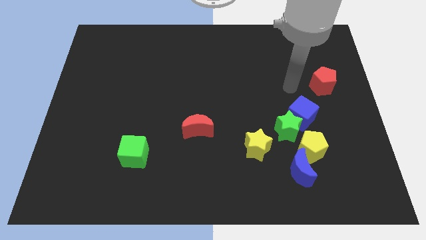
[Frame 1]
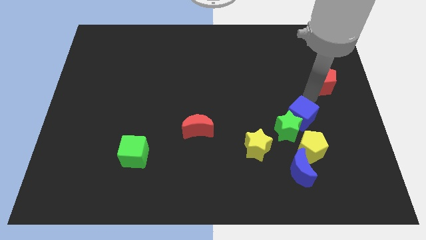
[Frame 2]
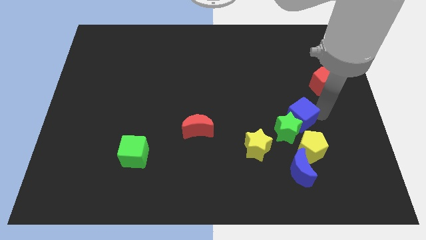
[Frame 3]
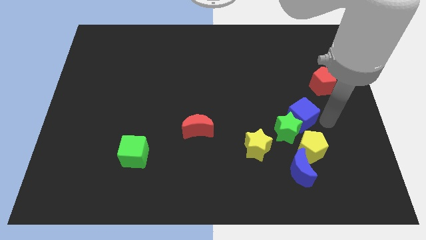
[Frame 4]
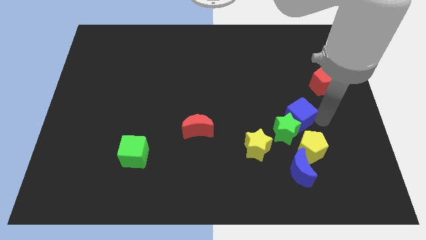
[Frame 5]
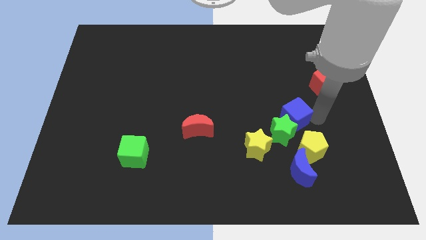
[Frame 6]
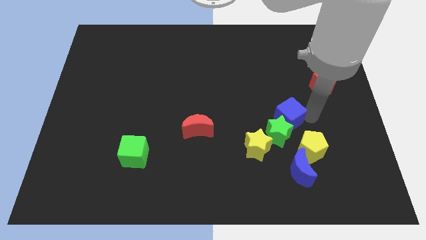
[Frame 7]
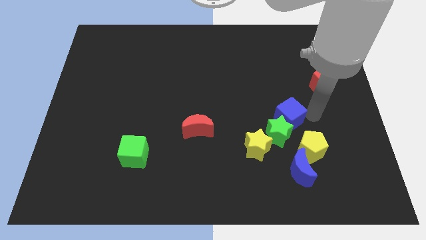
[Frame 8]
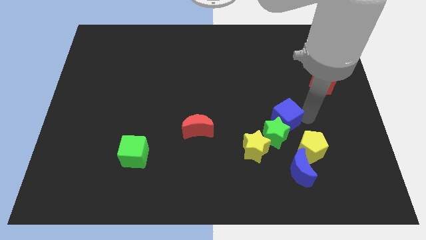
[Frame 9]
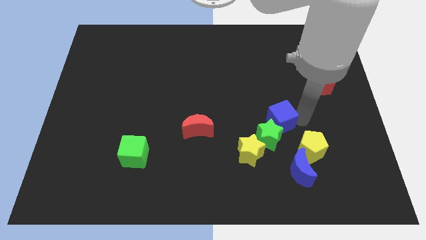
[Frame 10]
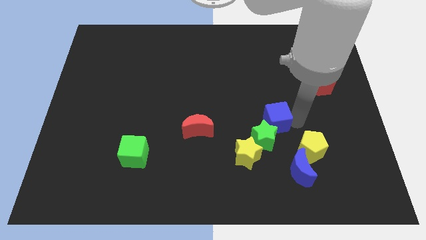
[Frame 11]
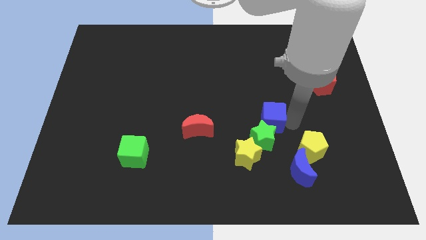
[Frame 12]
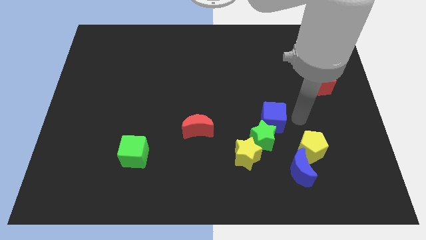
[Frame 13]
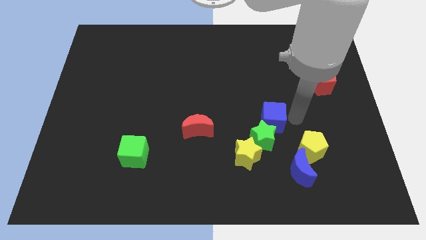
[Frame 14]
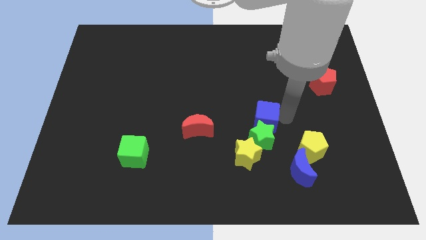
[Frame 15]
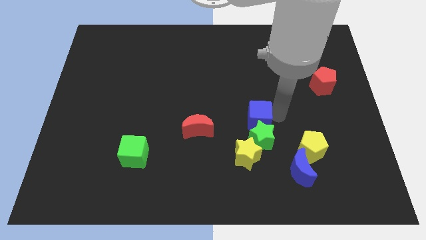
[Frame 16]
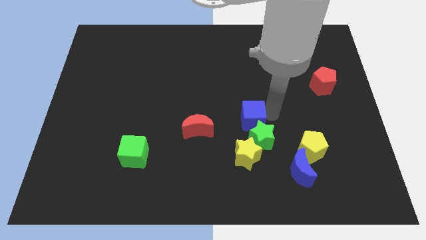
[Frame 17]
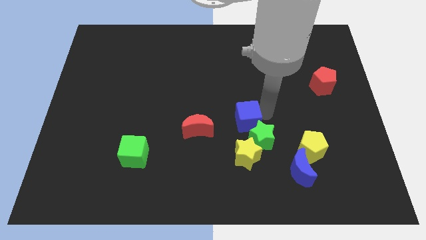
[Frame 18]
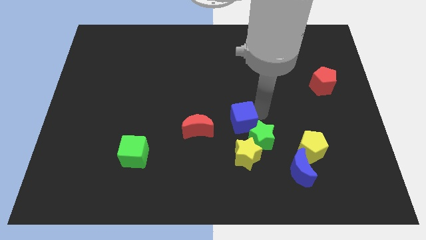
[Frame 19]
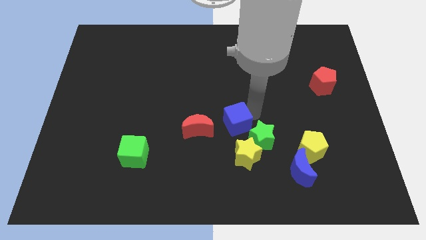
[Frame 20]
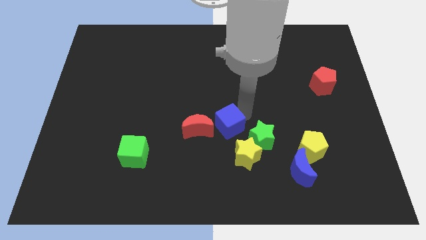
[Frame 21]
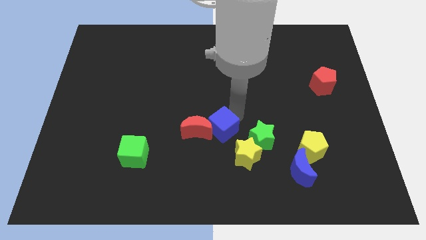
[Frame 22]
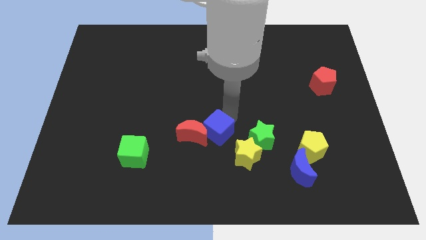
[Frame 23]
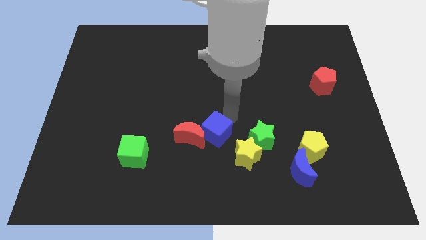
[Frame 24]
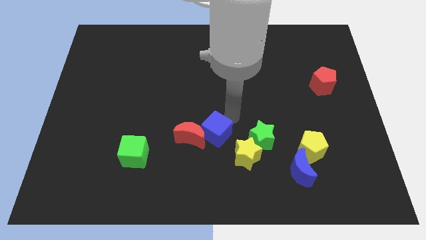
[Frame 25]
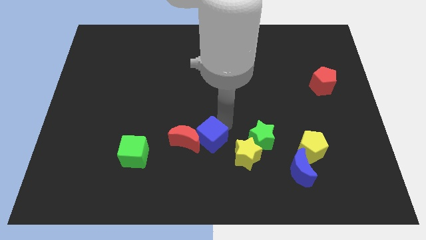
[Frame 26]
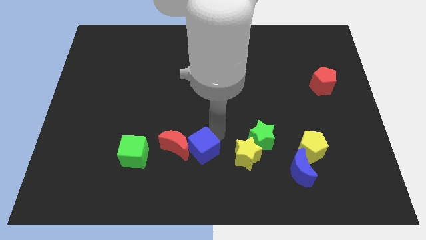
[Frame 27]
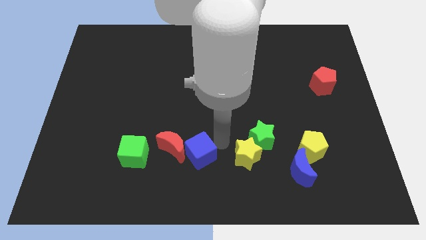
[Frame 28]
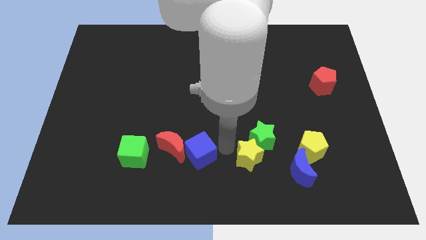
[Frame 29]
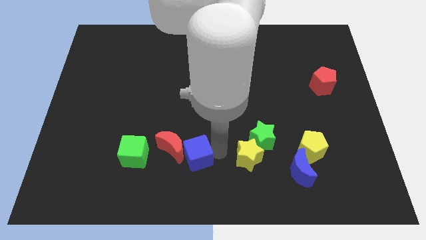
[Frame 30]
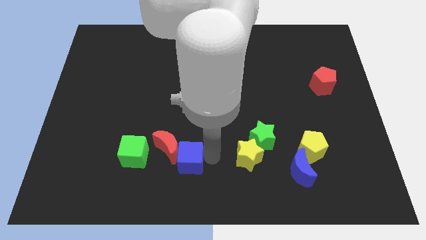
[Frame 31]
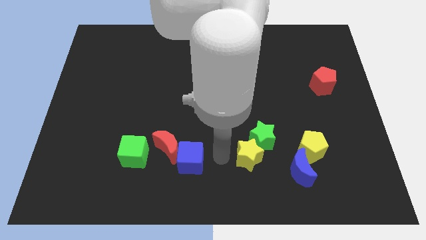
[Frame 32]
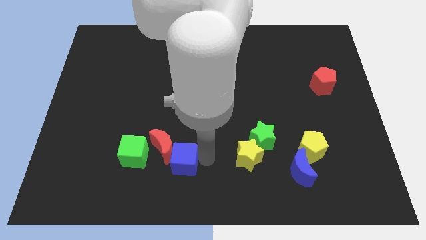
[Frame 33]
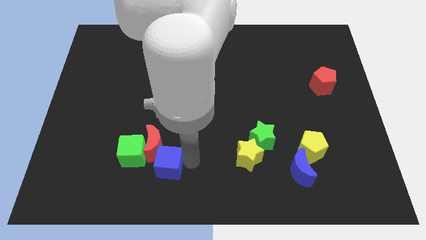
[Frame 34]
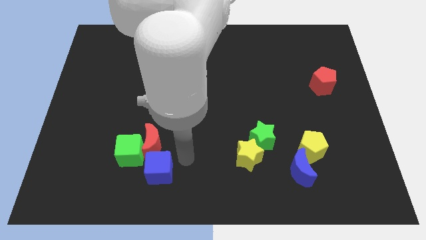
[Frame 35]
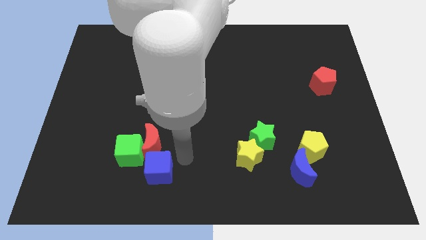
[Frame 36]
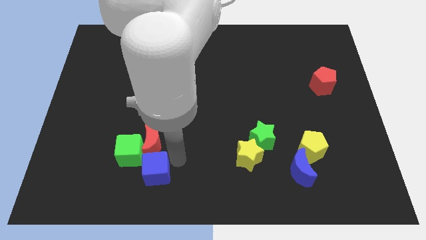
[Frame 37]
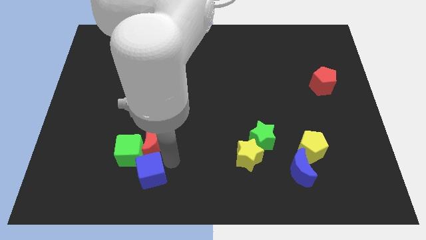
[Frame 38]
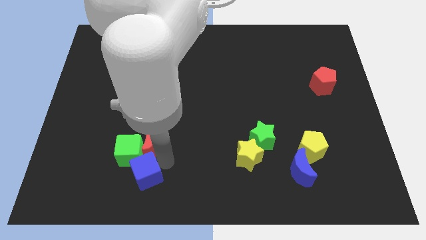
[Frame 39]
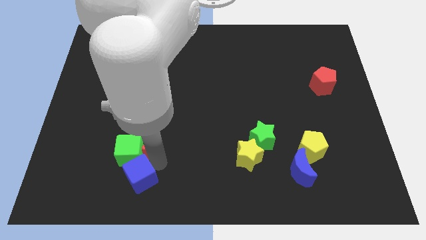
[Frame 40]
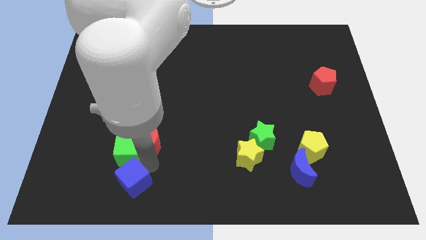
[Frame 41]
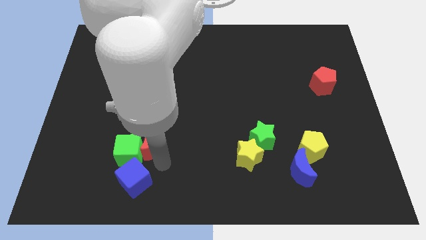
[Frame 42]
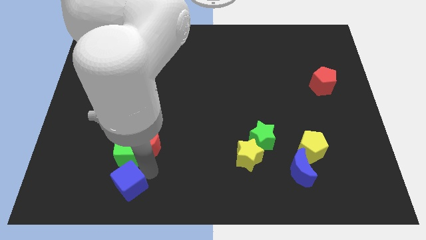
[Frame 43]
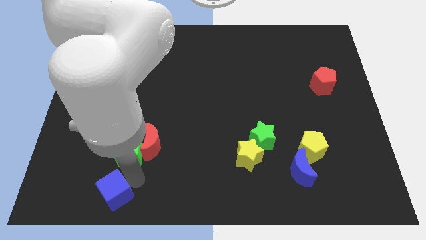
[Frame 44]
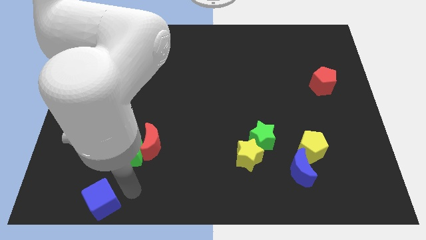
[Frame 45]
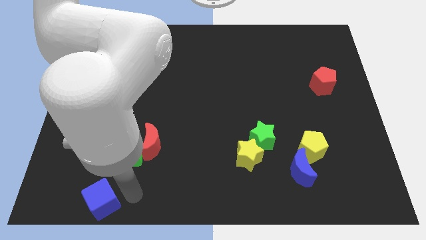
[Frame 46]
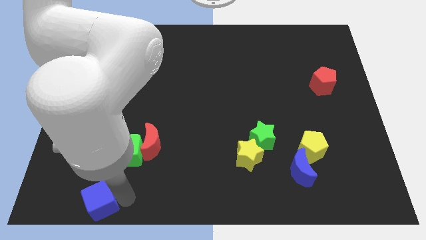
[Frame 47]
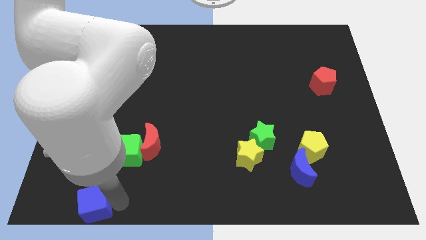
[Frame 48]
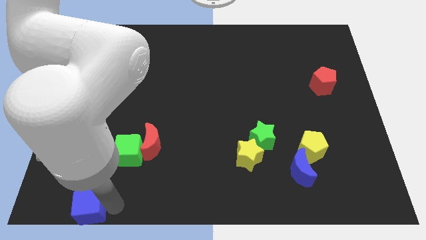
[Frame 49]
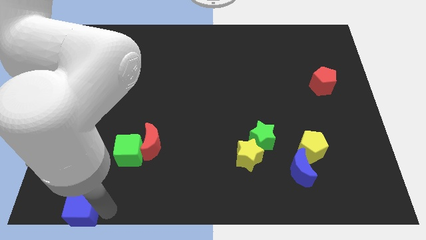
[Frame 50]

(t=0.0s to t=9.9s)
move the blue cube to the bottom left of the board
